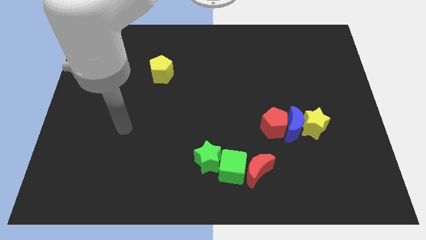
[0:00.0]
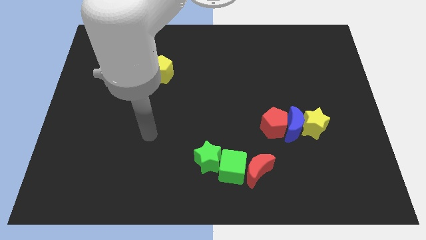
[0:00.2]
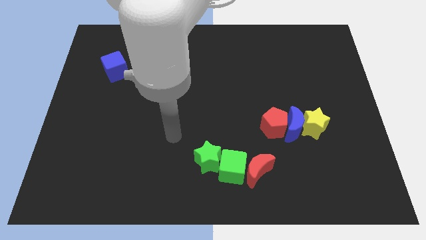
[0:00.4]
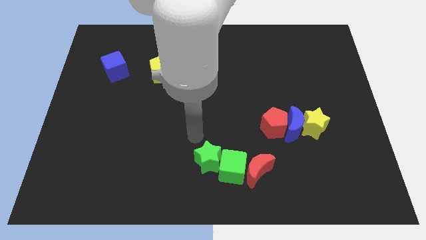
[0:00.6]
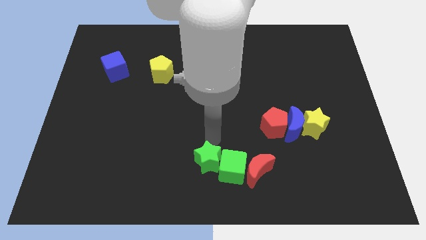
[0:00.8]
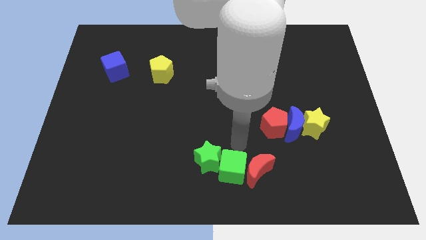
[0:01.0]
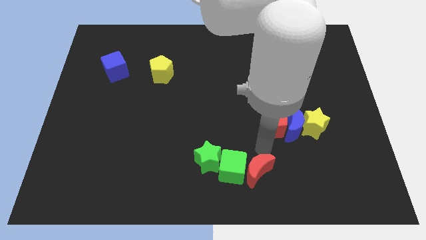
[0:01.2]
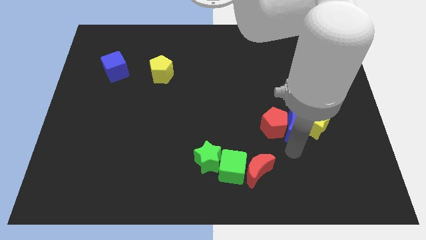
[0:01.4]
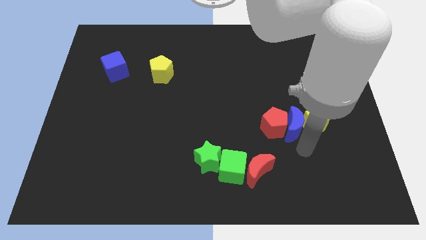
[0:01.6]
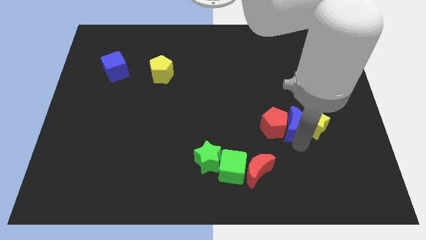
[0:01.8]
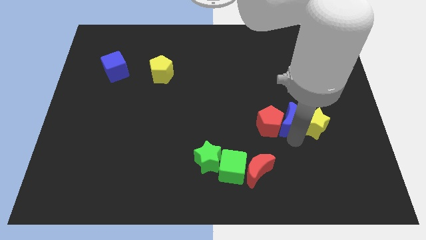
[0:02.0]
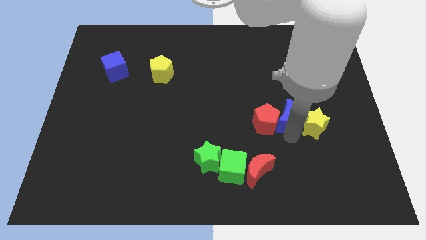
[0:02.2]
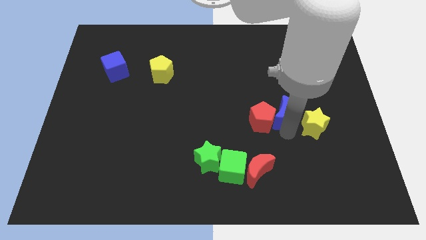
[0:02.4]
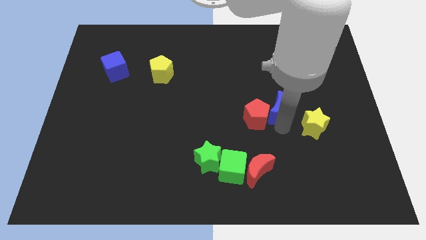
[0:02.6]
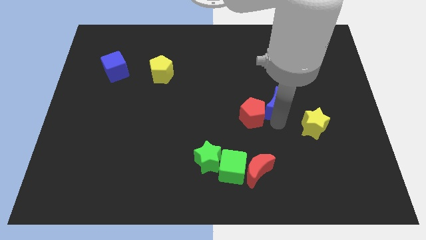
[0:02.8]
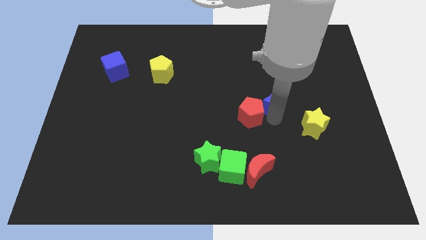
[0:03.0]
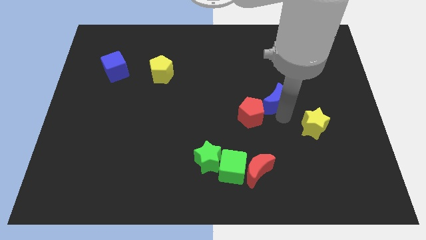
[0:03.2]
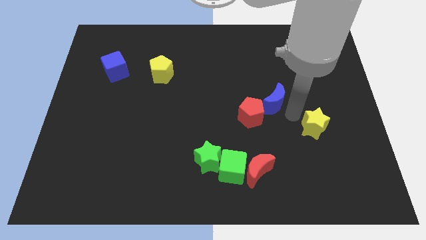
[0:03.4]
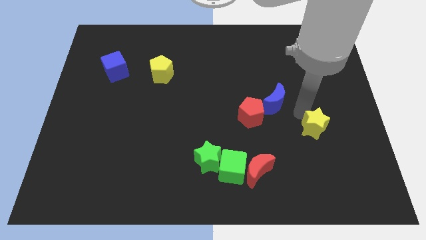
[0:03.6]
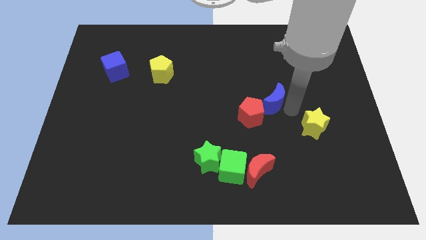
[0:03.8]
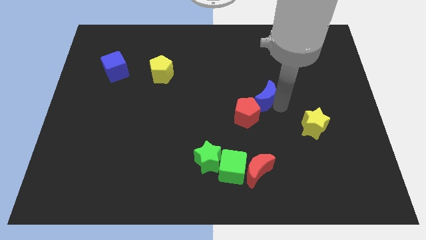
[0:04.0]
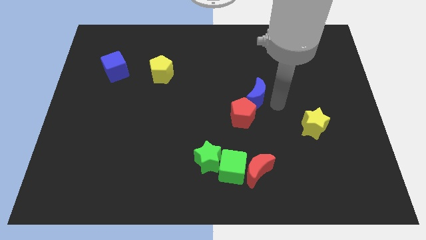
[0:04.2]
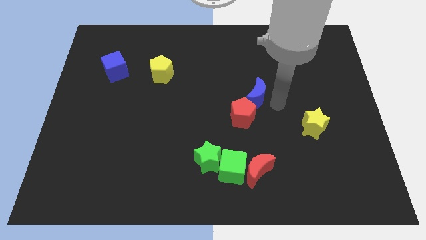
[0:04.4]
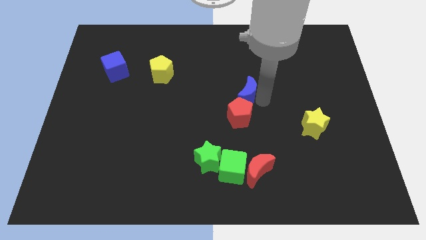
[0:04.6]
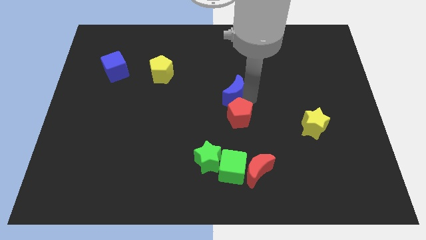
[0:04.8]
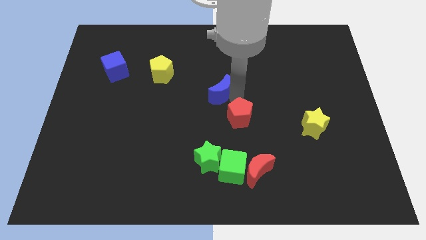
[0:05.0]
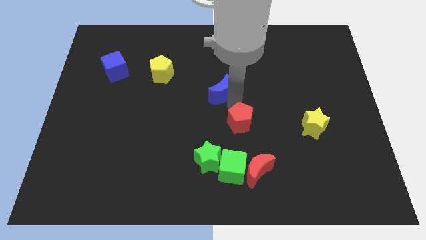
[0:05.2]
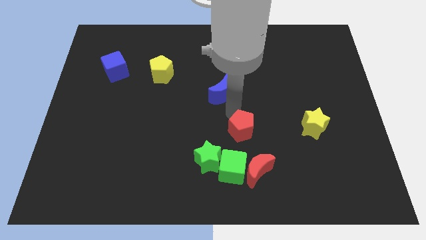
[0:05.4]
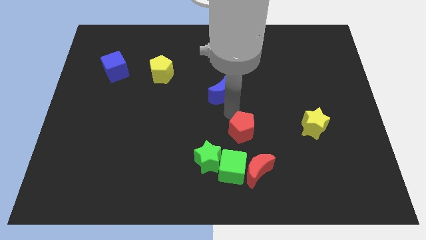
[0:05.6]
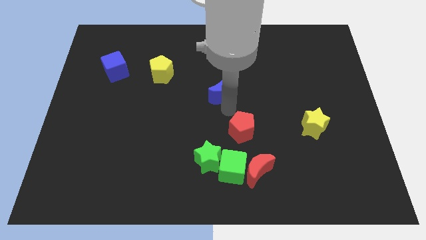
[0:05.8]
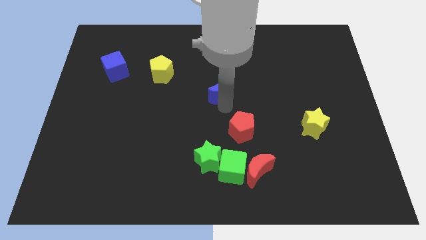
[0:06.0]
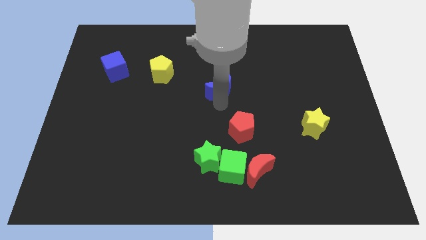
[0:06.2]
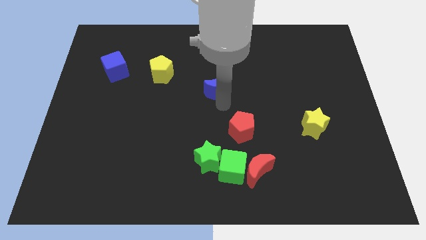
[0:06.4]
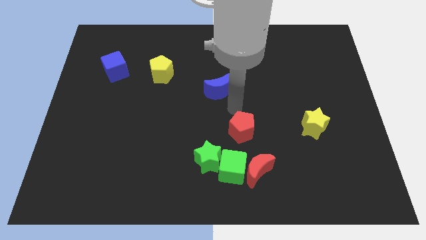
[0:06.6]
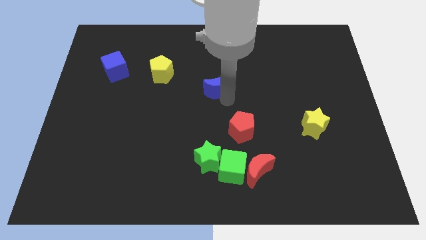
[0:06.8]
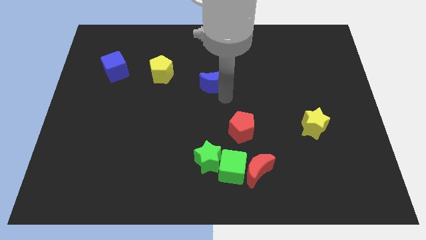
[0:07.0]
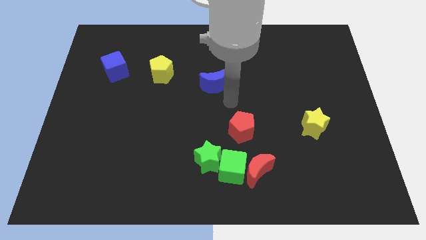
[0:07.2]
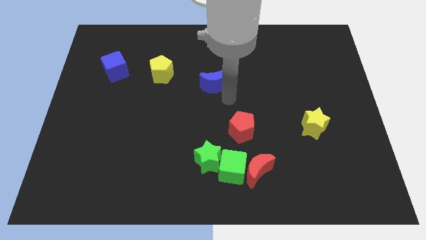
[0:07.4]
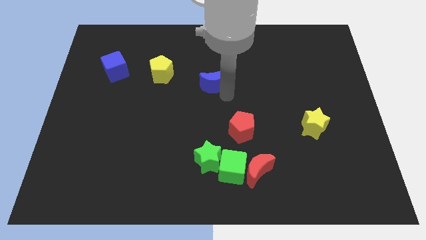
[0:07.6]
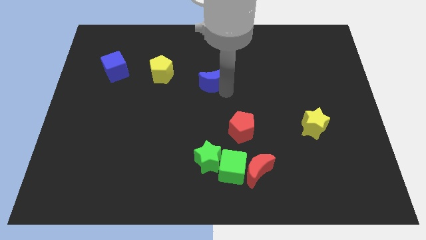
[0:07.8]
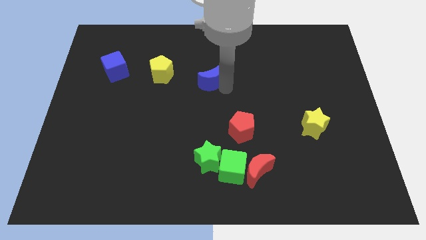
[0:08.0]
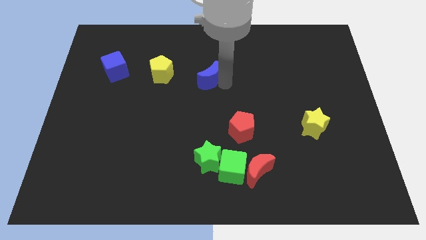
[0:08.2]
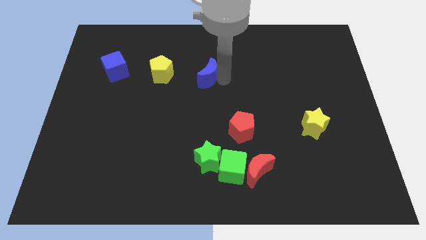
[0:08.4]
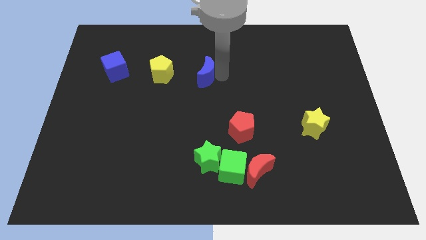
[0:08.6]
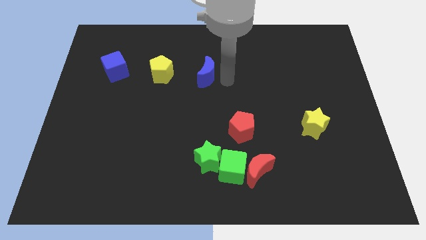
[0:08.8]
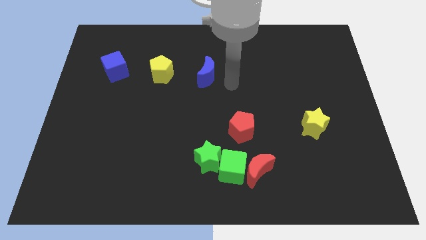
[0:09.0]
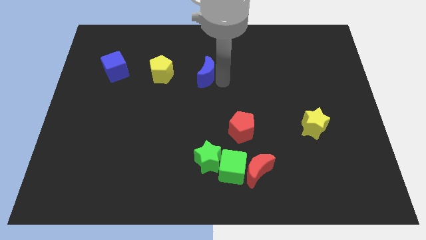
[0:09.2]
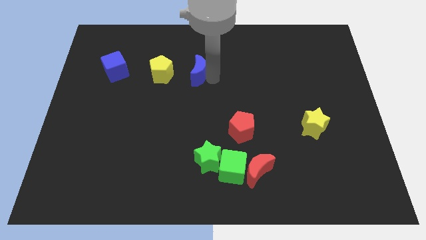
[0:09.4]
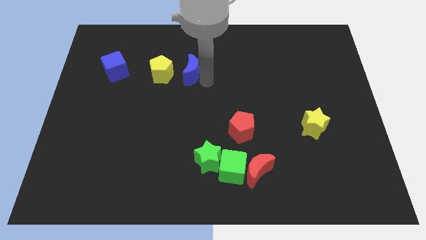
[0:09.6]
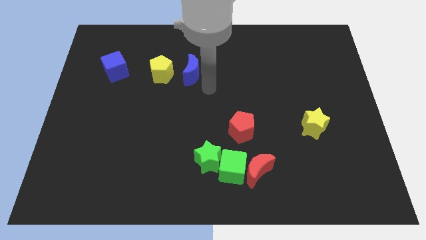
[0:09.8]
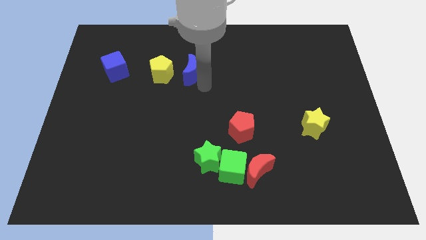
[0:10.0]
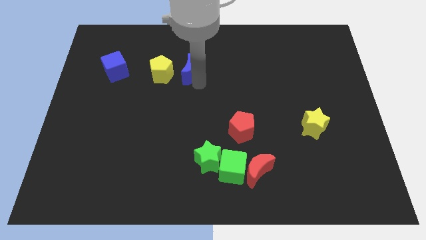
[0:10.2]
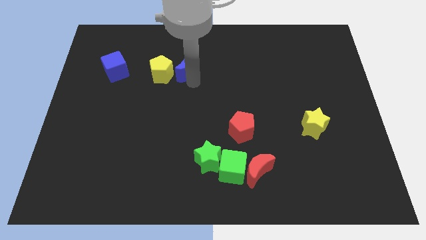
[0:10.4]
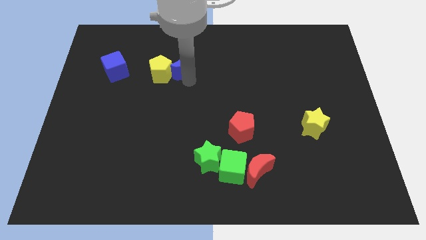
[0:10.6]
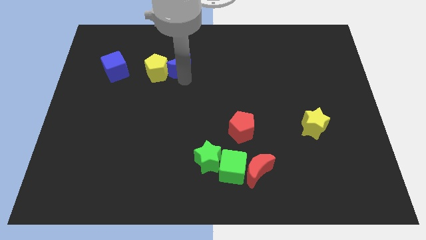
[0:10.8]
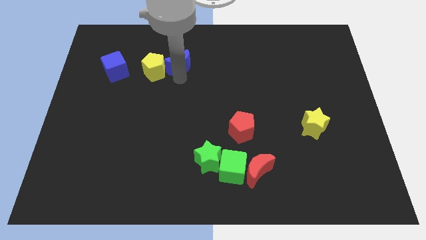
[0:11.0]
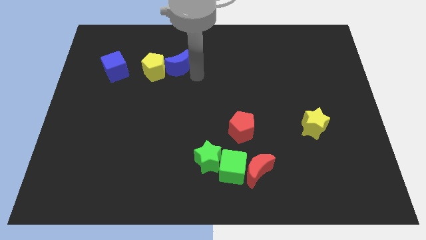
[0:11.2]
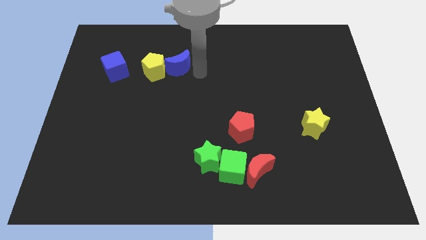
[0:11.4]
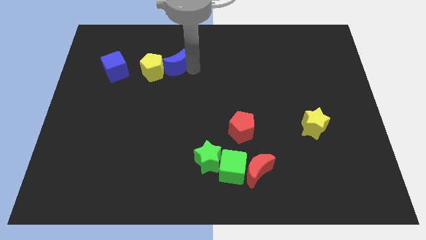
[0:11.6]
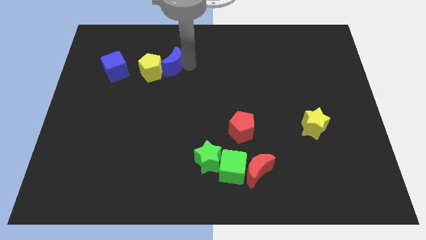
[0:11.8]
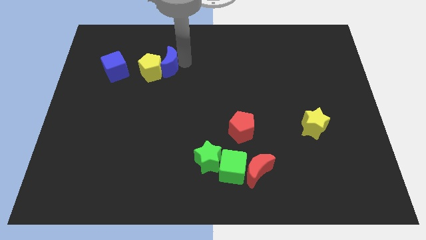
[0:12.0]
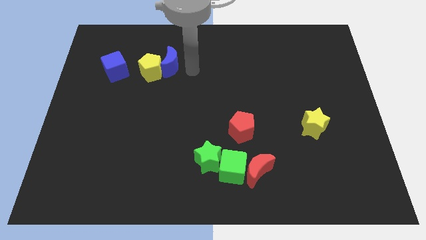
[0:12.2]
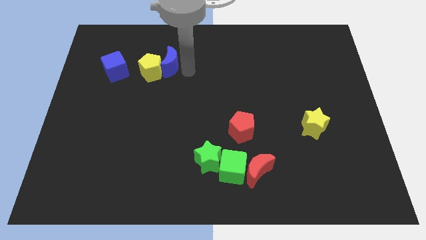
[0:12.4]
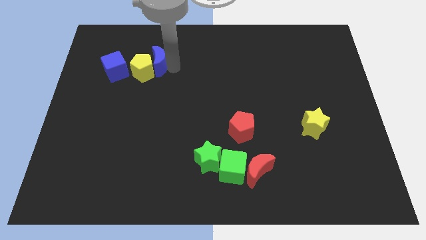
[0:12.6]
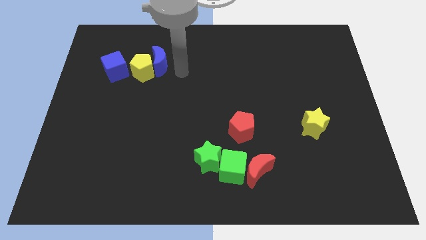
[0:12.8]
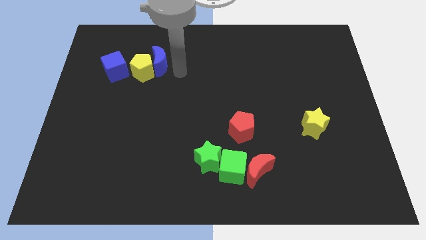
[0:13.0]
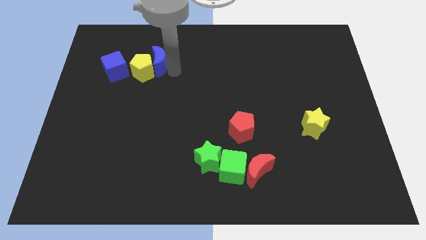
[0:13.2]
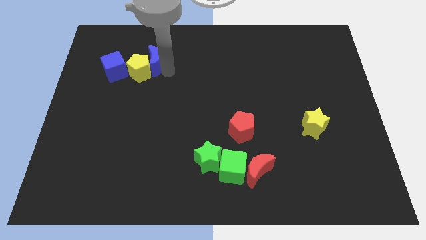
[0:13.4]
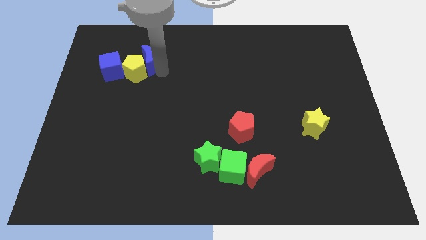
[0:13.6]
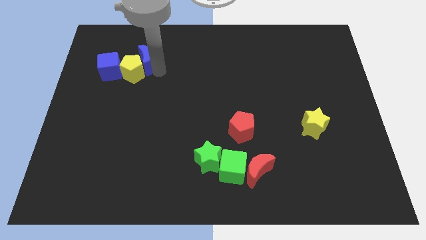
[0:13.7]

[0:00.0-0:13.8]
push the blue moon to the top right side of the blue cube
